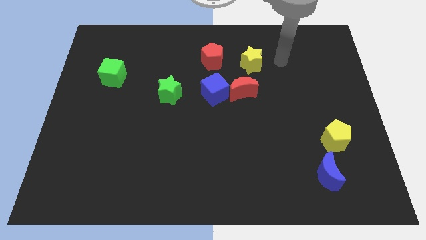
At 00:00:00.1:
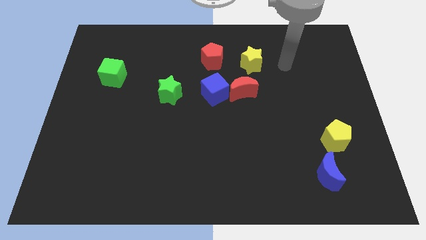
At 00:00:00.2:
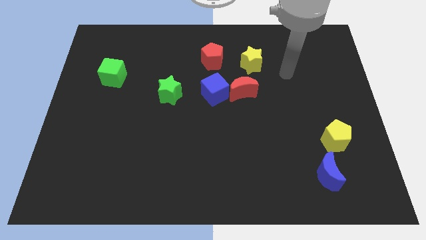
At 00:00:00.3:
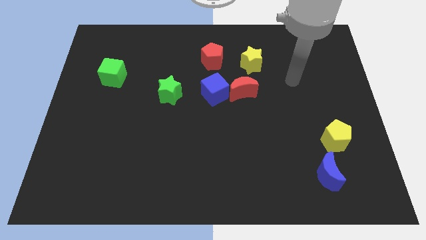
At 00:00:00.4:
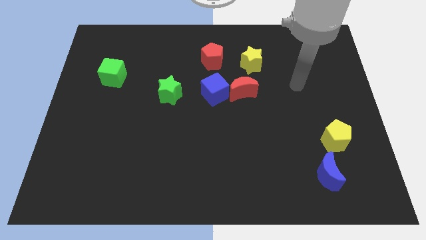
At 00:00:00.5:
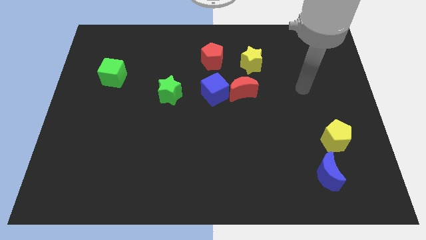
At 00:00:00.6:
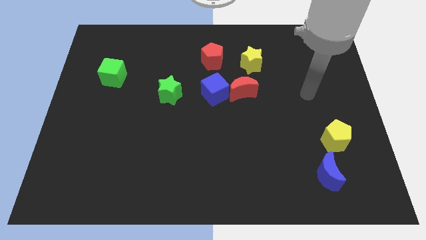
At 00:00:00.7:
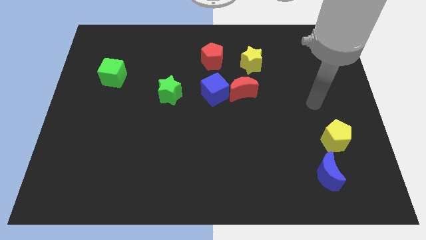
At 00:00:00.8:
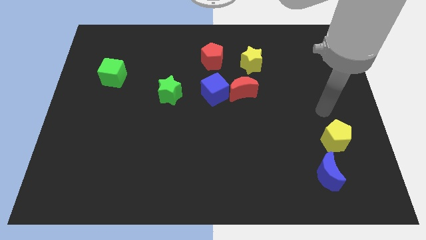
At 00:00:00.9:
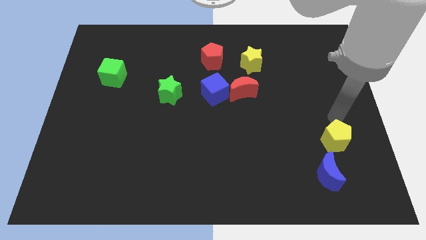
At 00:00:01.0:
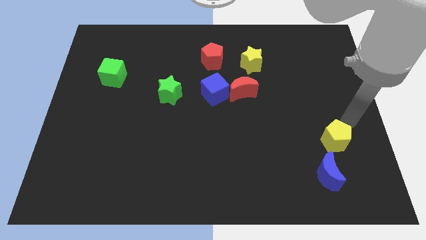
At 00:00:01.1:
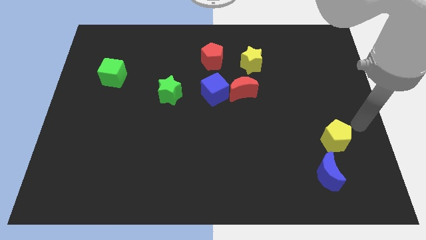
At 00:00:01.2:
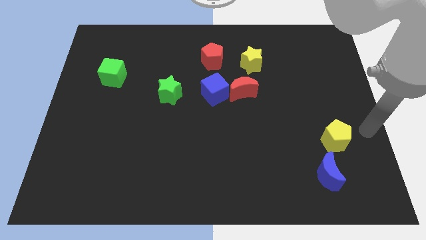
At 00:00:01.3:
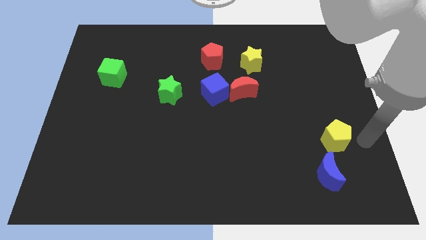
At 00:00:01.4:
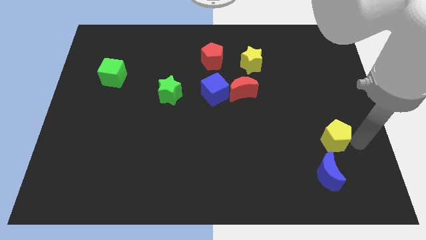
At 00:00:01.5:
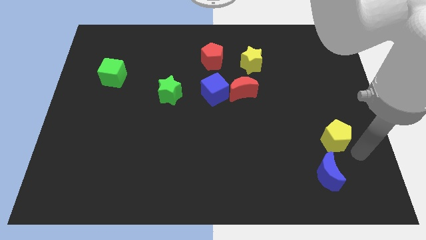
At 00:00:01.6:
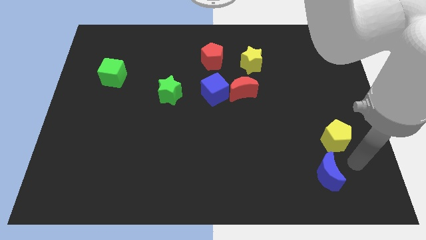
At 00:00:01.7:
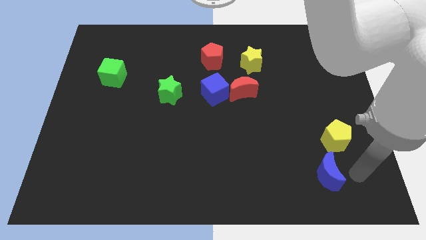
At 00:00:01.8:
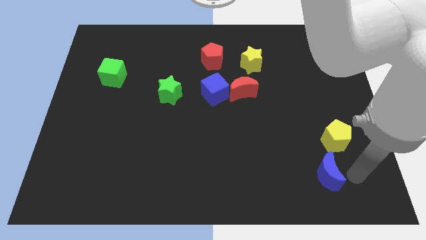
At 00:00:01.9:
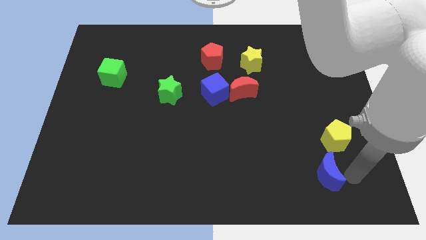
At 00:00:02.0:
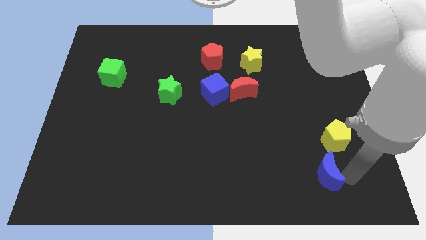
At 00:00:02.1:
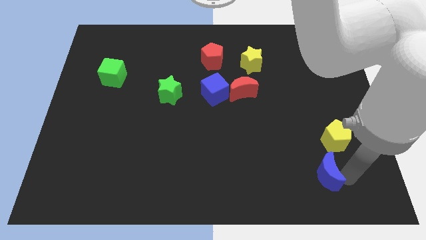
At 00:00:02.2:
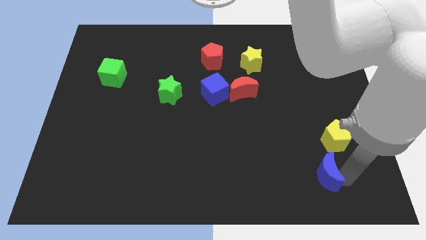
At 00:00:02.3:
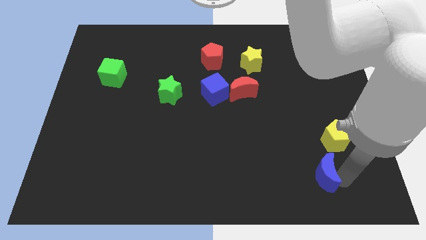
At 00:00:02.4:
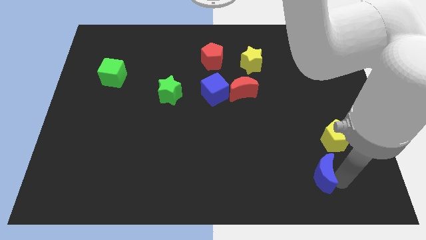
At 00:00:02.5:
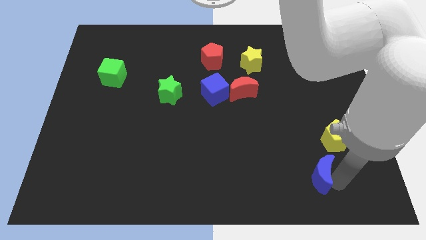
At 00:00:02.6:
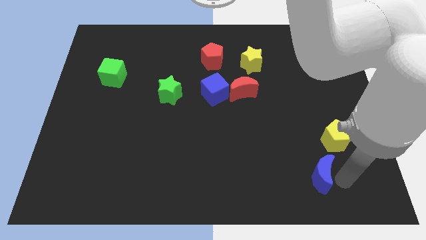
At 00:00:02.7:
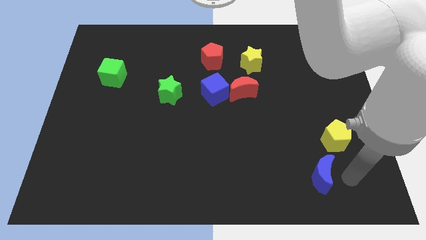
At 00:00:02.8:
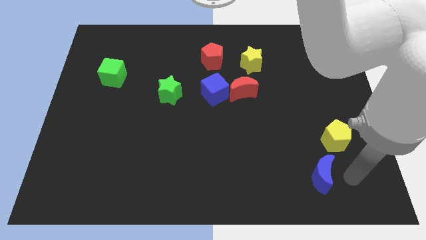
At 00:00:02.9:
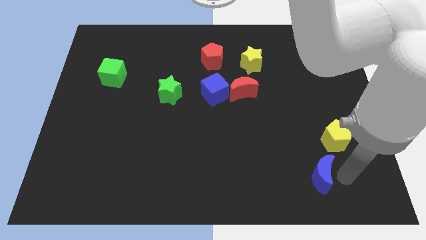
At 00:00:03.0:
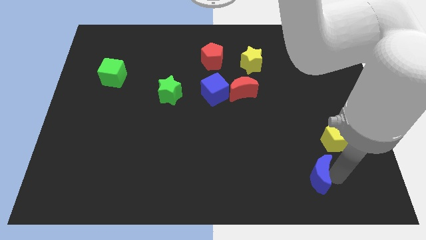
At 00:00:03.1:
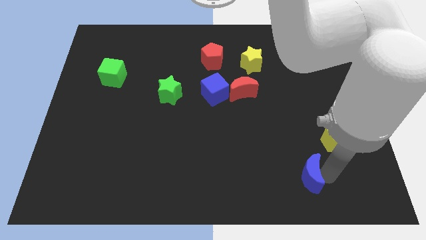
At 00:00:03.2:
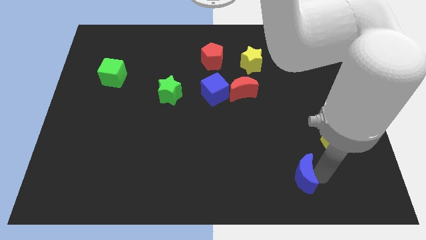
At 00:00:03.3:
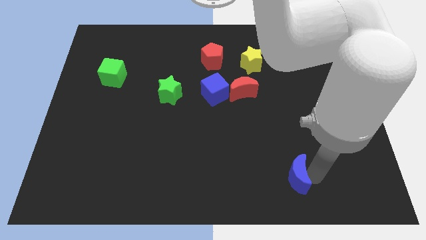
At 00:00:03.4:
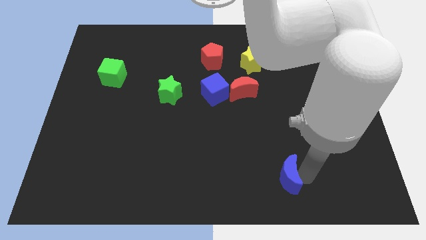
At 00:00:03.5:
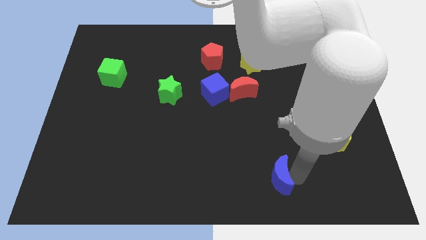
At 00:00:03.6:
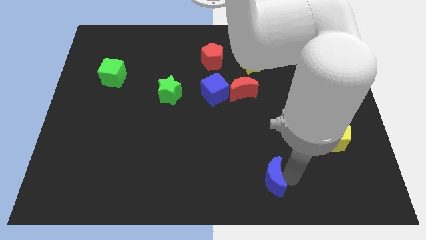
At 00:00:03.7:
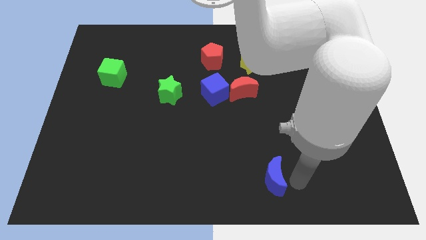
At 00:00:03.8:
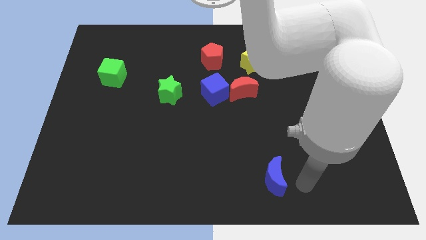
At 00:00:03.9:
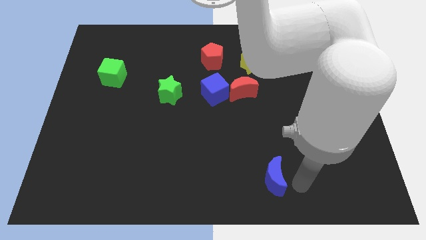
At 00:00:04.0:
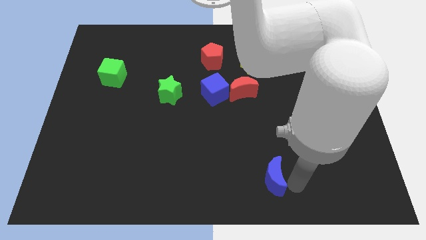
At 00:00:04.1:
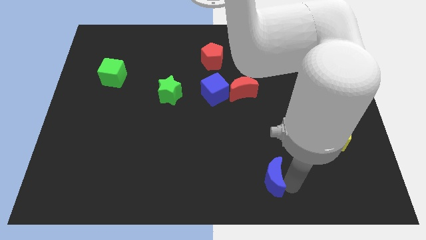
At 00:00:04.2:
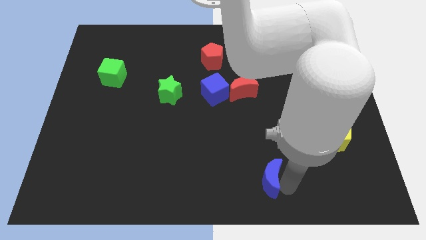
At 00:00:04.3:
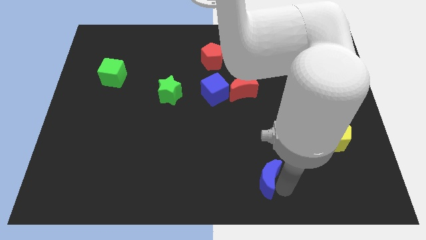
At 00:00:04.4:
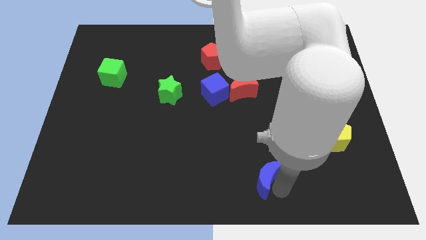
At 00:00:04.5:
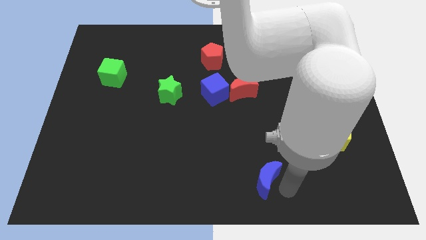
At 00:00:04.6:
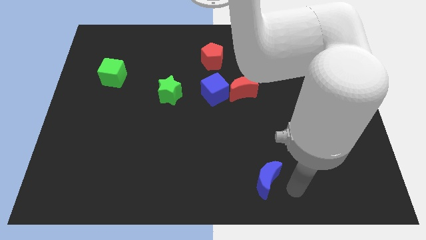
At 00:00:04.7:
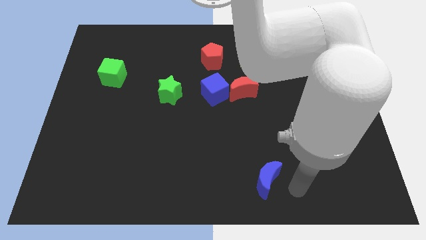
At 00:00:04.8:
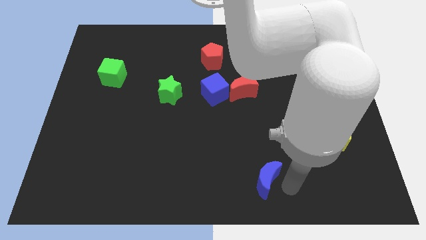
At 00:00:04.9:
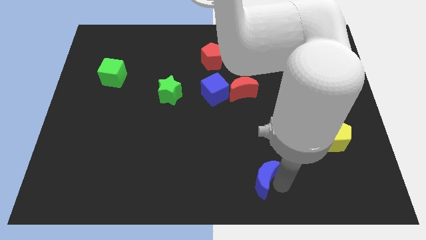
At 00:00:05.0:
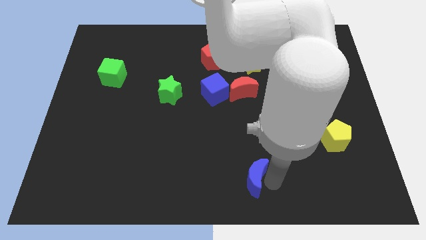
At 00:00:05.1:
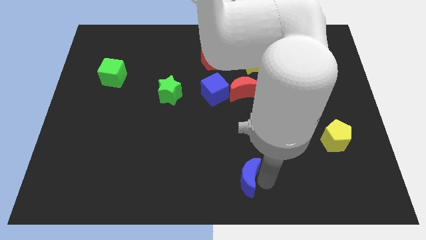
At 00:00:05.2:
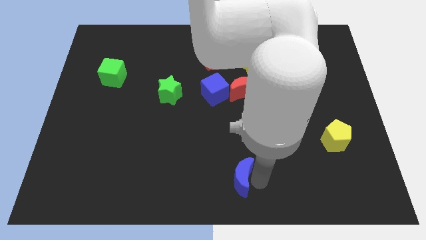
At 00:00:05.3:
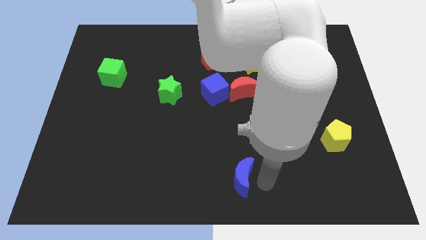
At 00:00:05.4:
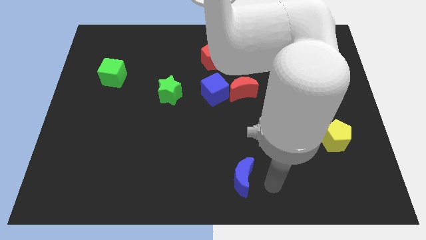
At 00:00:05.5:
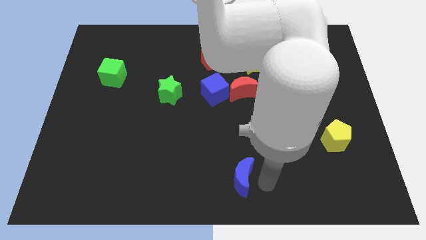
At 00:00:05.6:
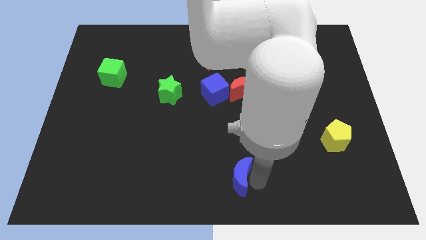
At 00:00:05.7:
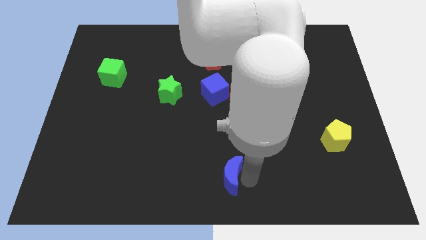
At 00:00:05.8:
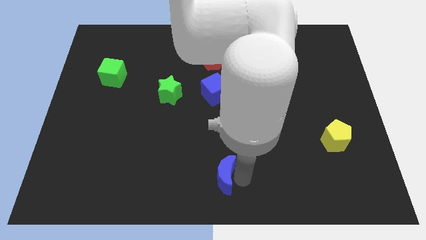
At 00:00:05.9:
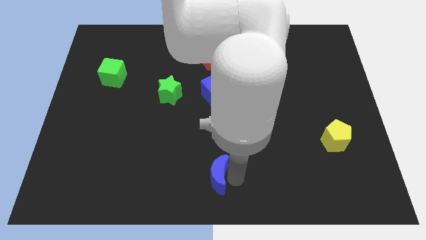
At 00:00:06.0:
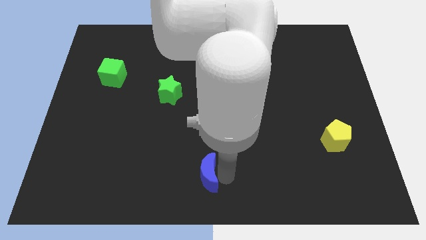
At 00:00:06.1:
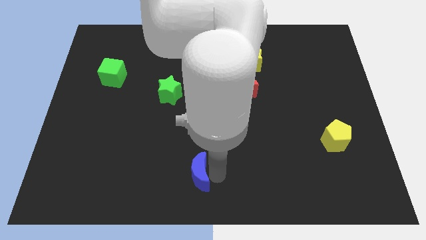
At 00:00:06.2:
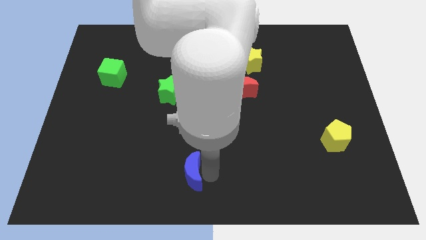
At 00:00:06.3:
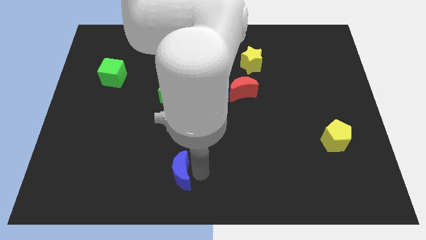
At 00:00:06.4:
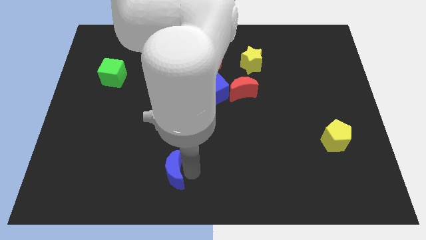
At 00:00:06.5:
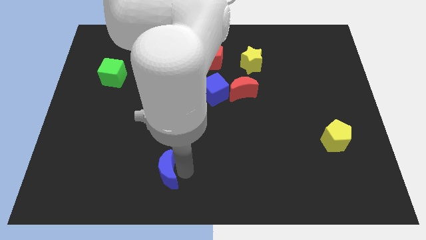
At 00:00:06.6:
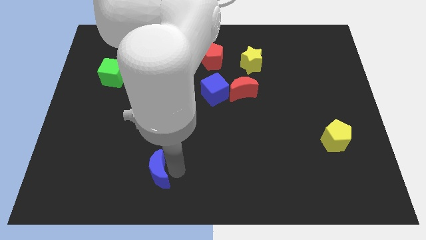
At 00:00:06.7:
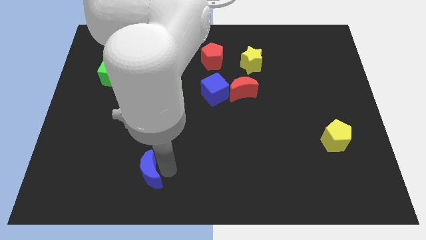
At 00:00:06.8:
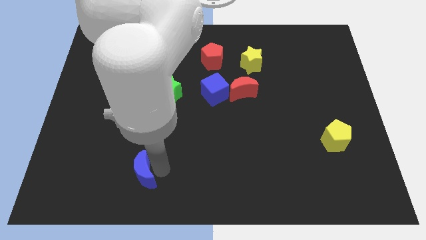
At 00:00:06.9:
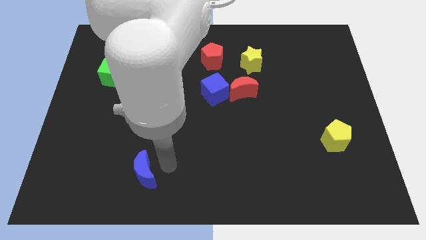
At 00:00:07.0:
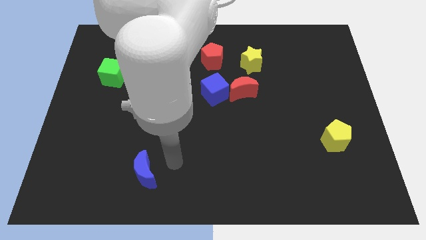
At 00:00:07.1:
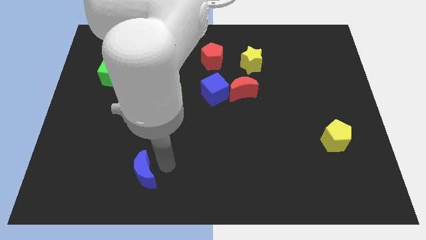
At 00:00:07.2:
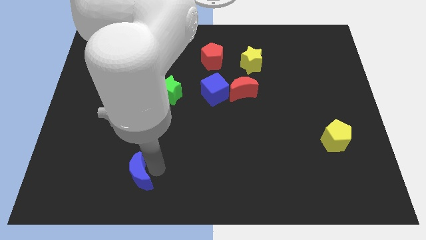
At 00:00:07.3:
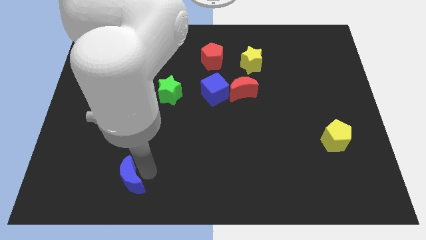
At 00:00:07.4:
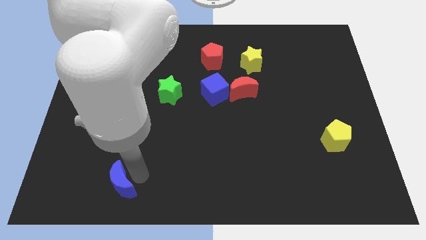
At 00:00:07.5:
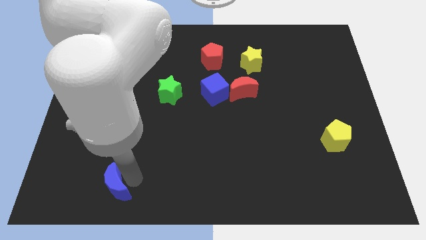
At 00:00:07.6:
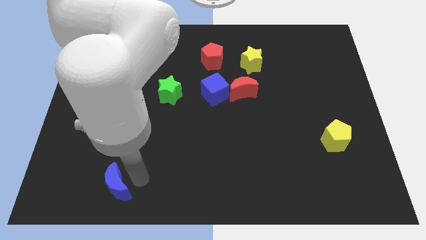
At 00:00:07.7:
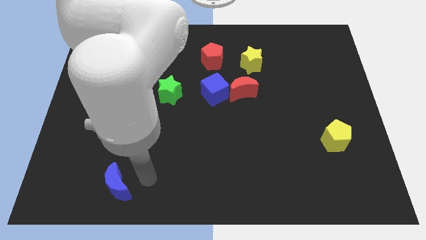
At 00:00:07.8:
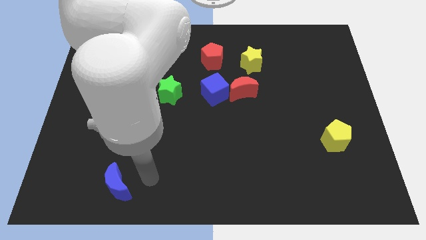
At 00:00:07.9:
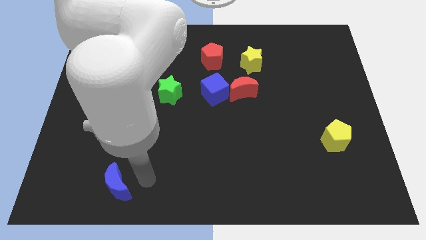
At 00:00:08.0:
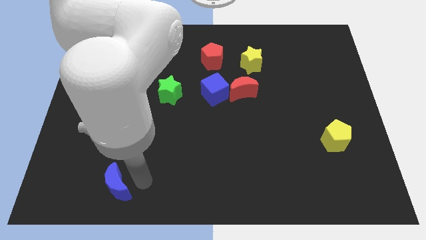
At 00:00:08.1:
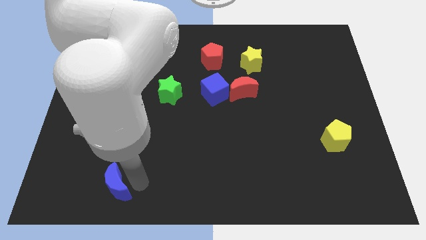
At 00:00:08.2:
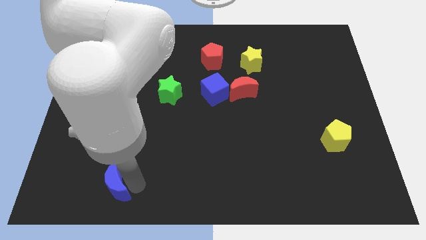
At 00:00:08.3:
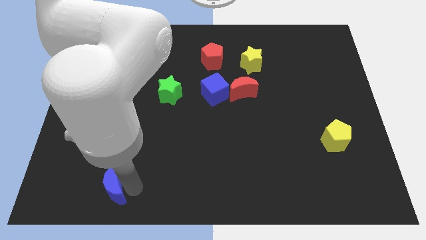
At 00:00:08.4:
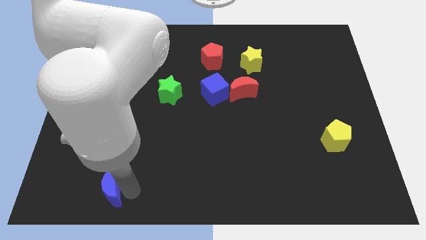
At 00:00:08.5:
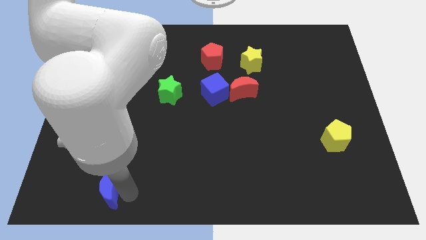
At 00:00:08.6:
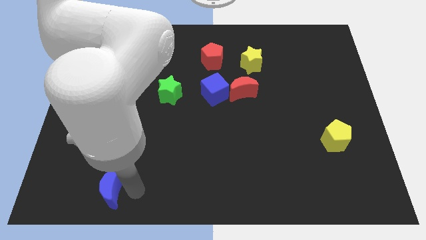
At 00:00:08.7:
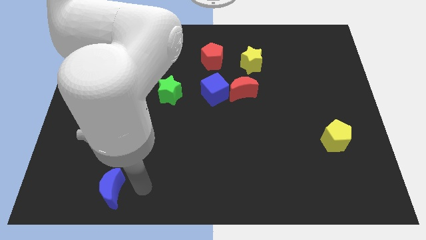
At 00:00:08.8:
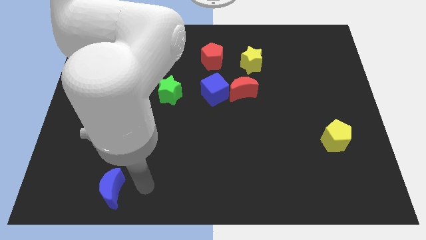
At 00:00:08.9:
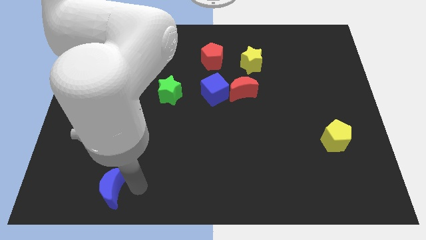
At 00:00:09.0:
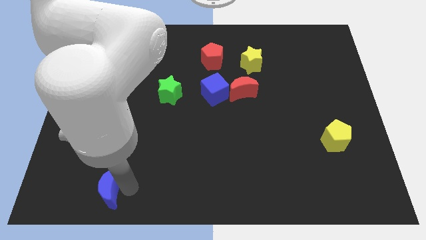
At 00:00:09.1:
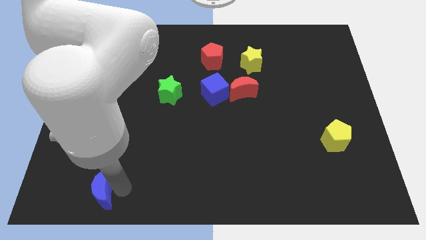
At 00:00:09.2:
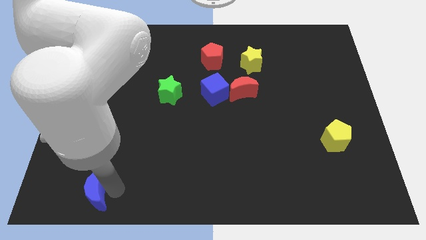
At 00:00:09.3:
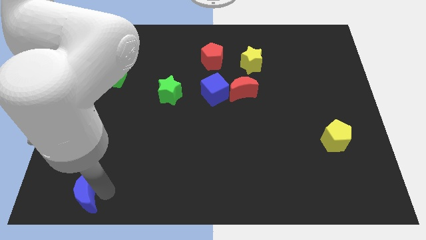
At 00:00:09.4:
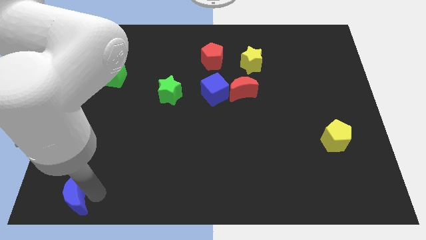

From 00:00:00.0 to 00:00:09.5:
slide the blue moon to the bottom left corner
